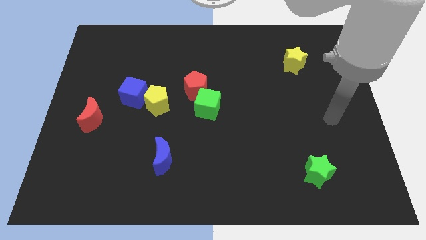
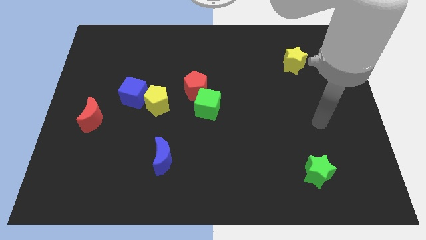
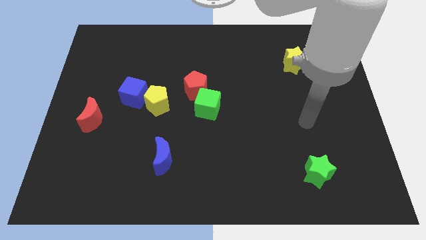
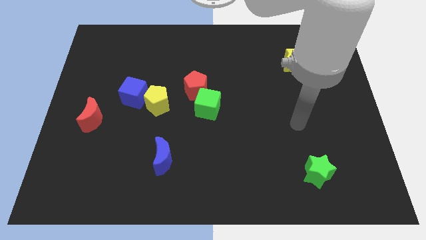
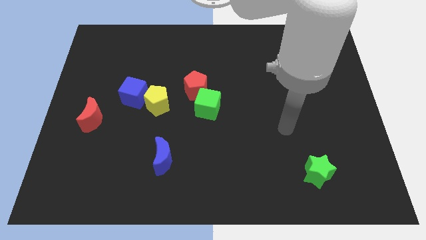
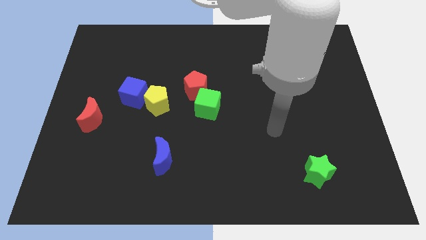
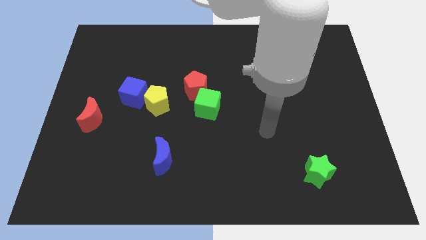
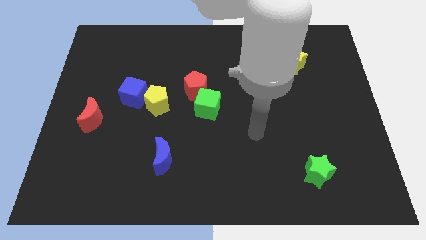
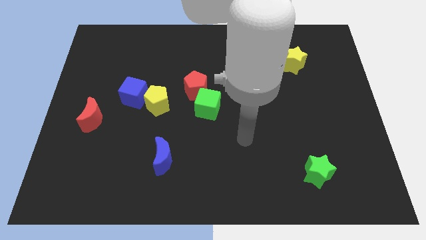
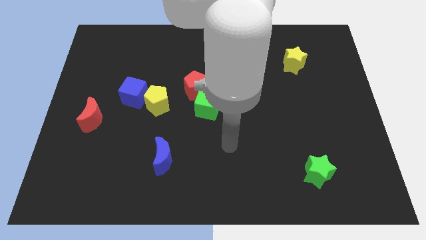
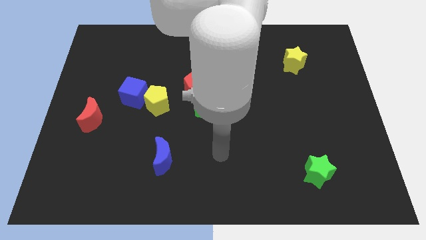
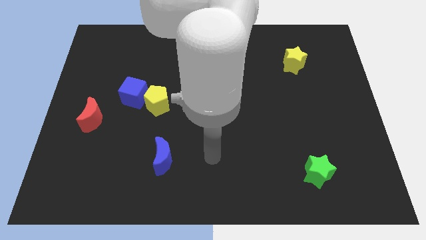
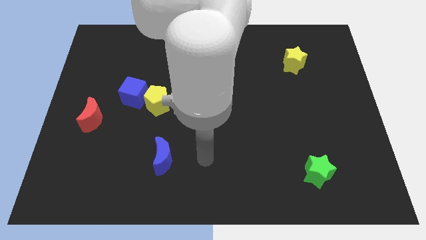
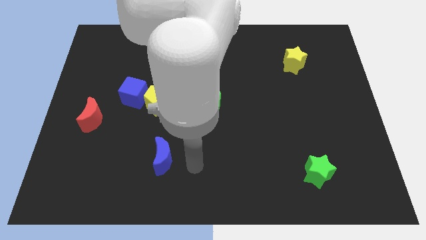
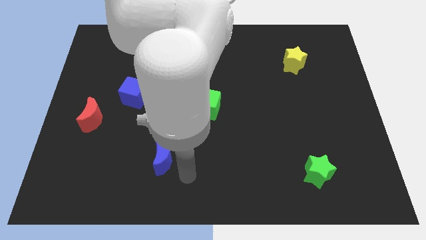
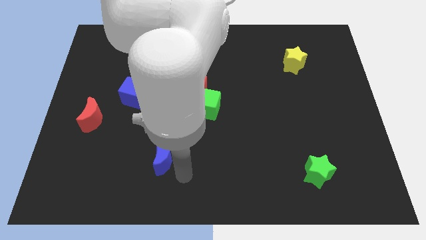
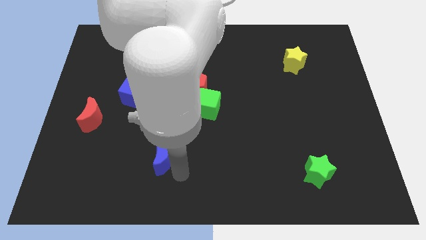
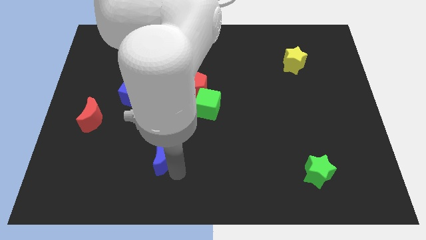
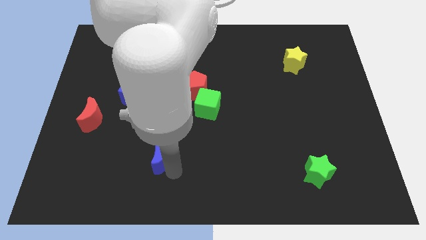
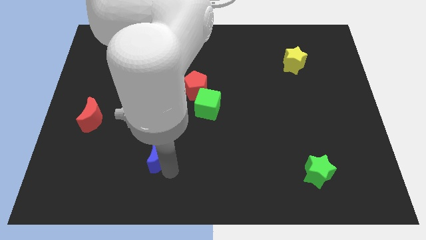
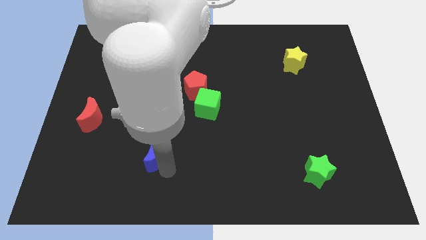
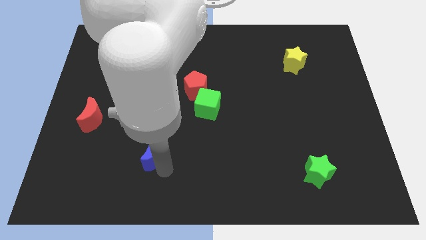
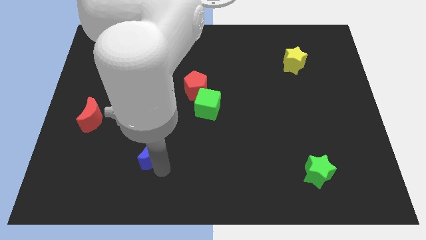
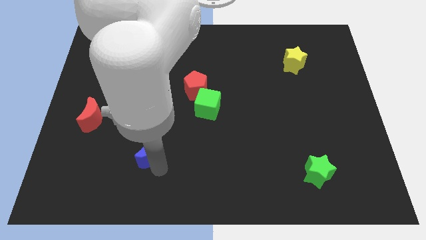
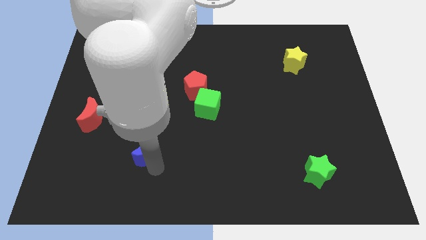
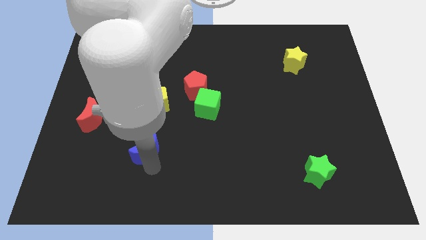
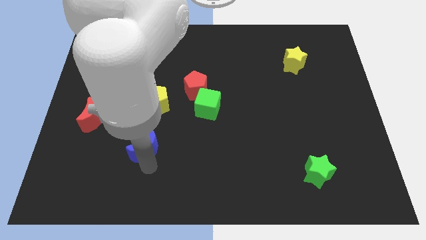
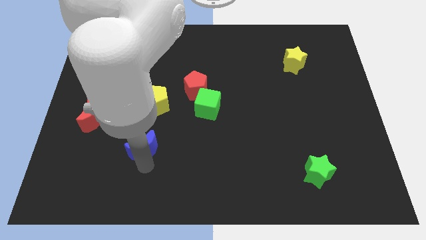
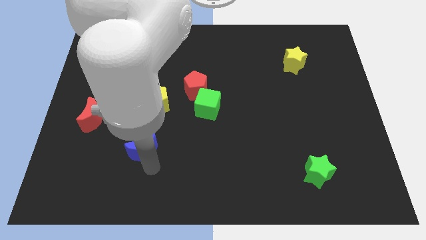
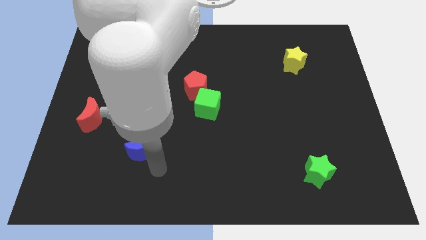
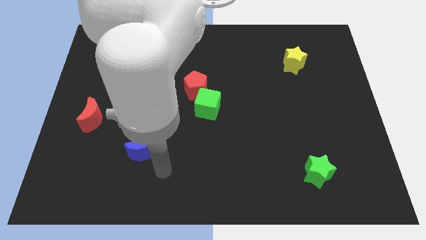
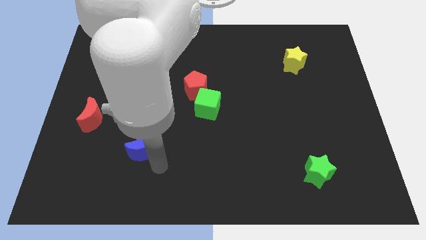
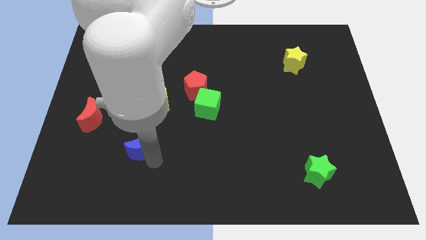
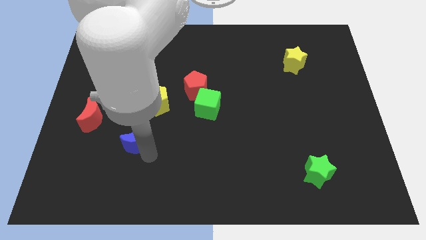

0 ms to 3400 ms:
move the blue moon up and to the left diagonally a little

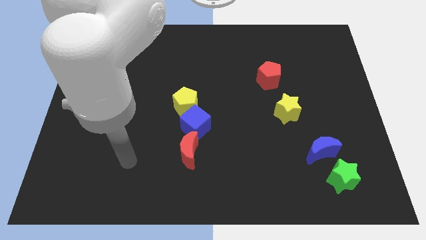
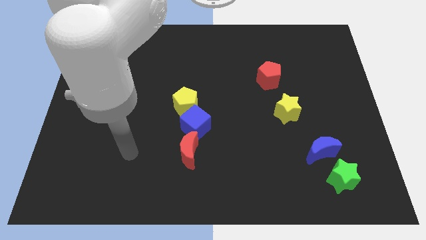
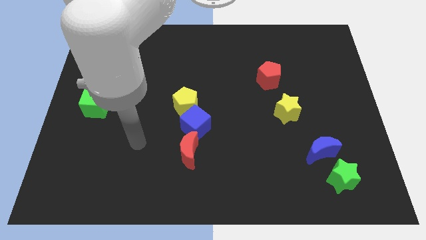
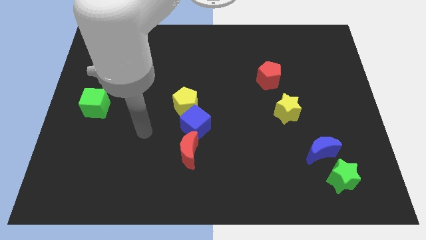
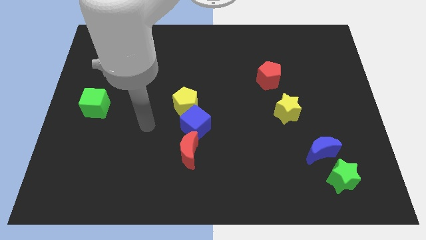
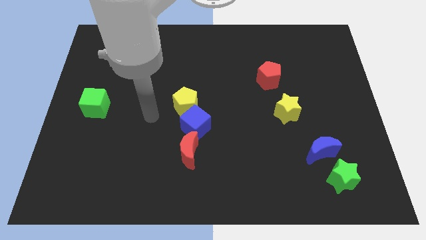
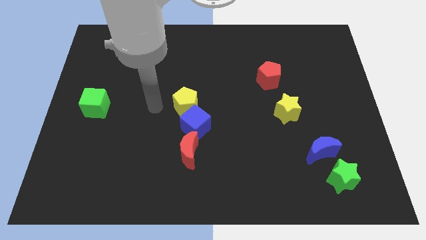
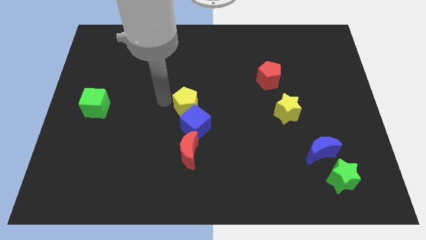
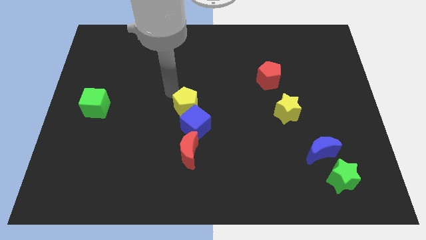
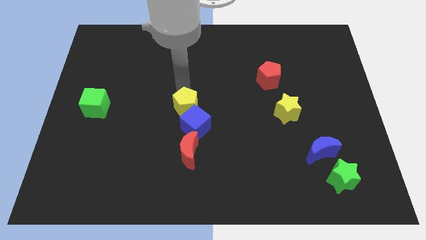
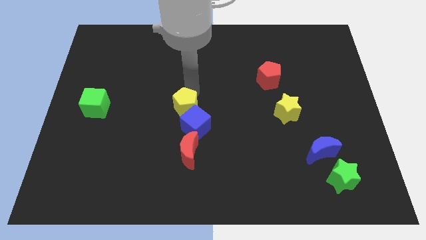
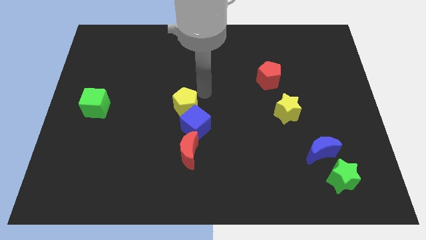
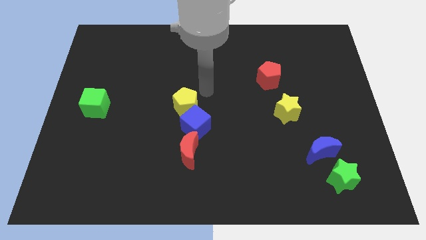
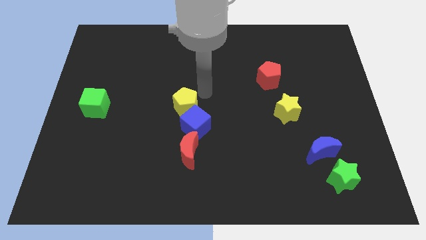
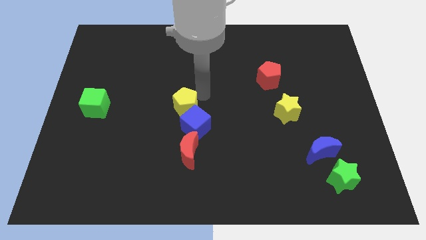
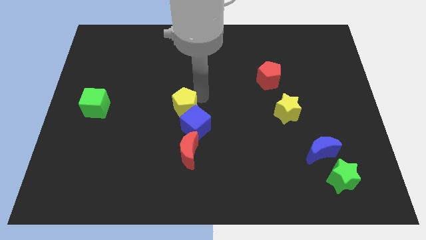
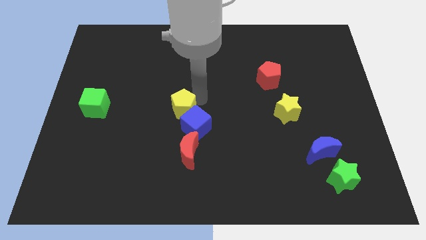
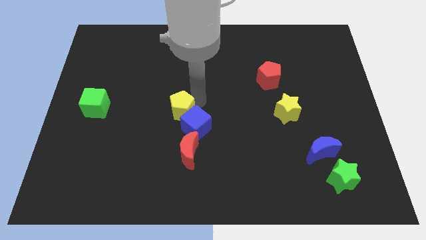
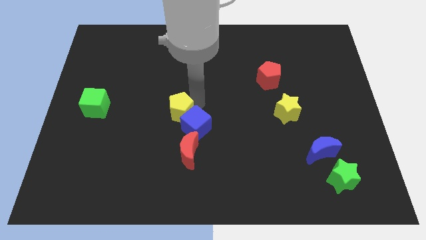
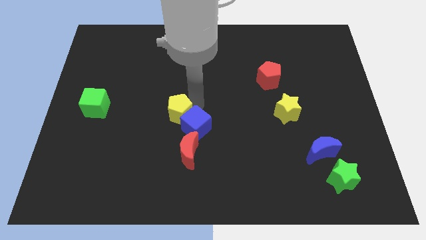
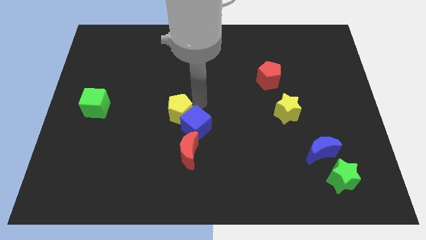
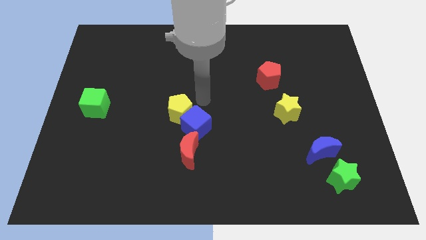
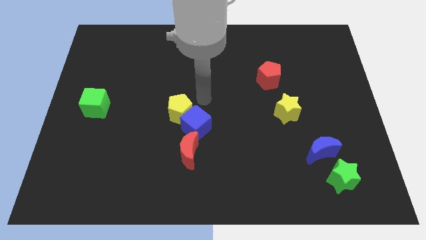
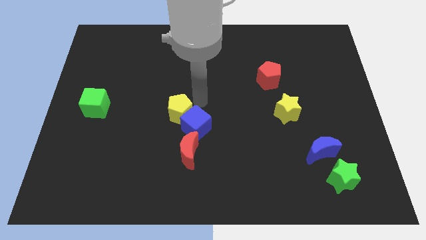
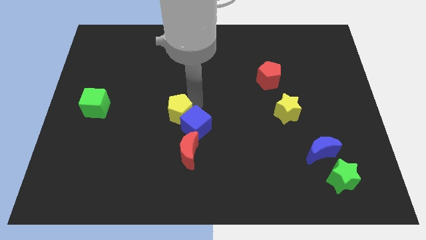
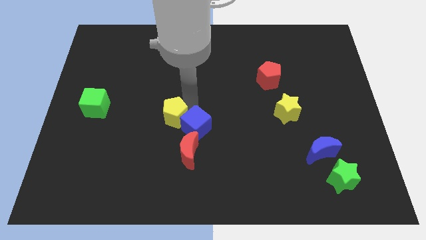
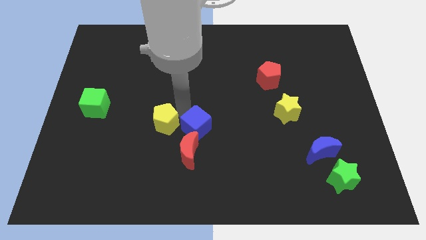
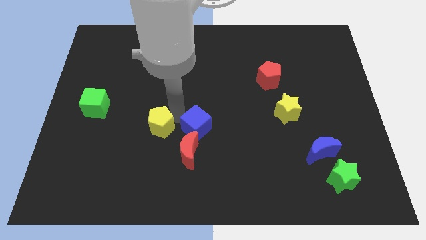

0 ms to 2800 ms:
slightly slide the yellow pentagon down and to the left

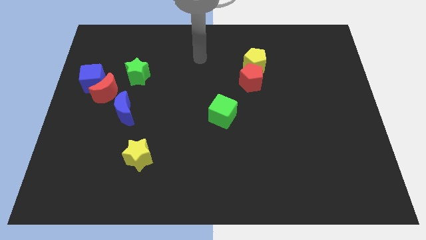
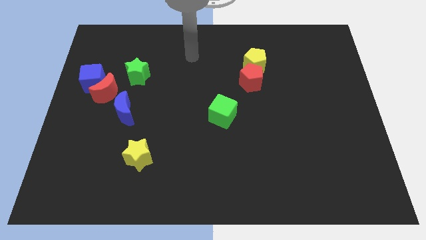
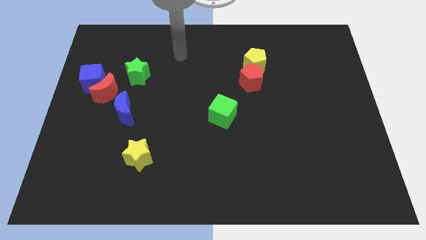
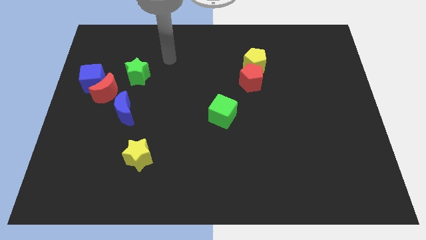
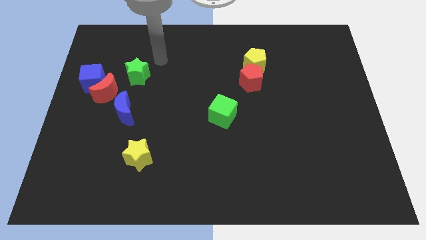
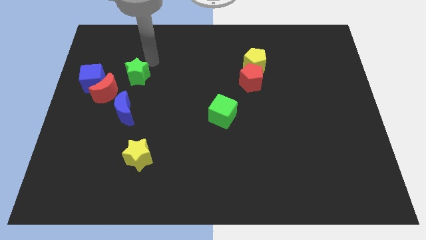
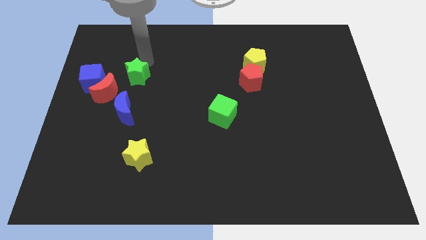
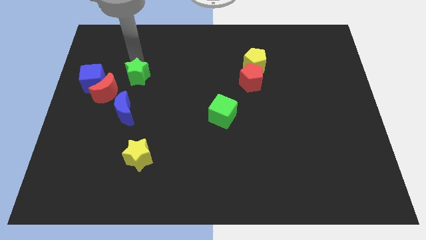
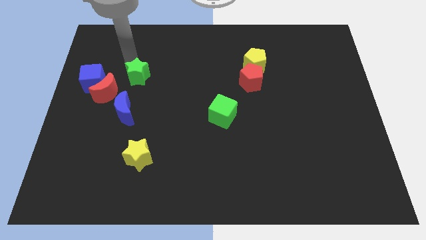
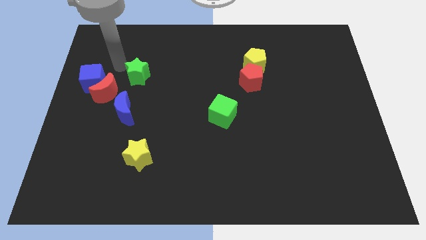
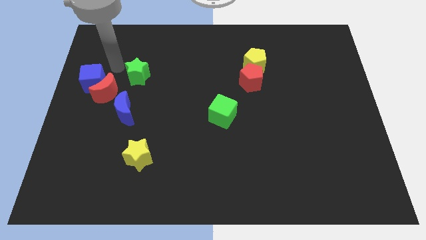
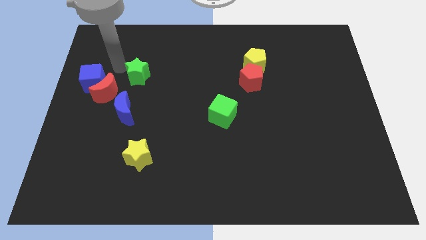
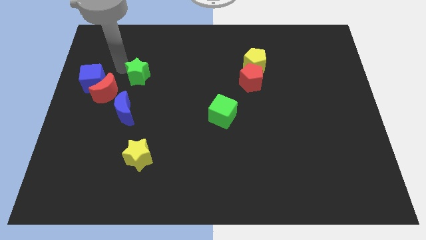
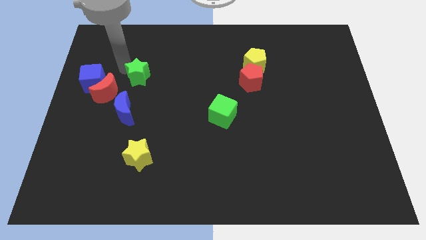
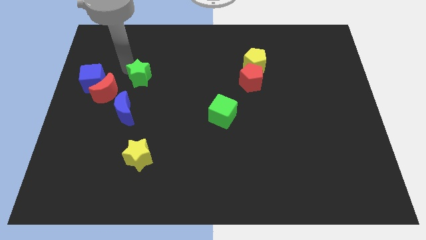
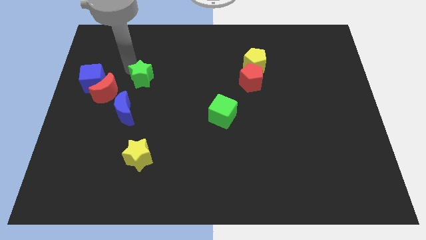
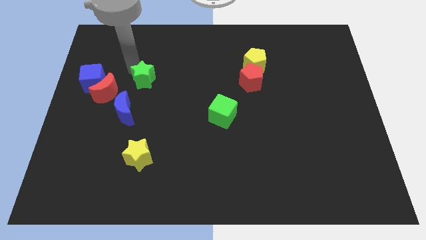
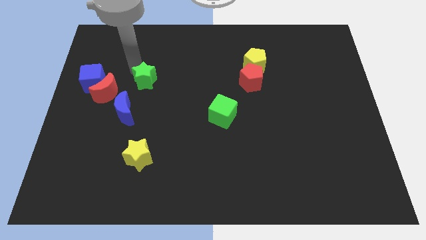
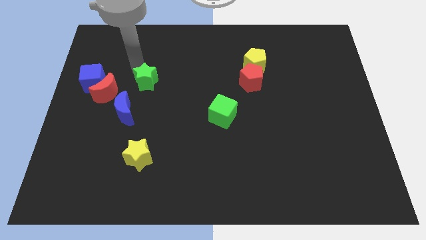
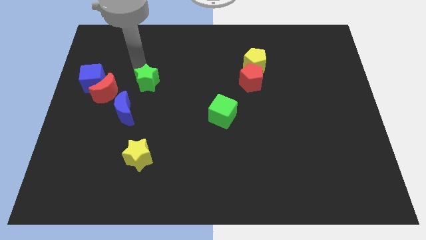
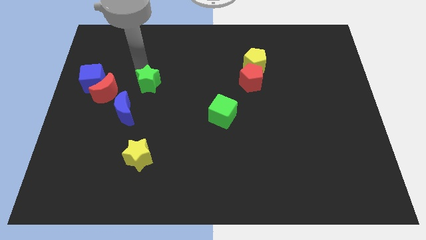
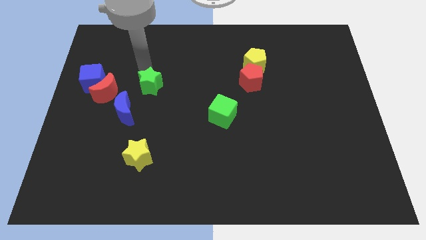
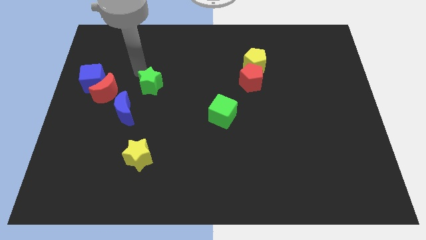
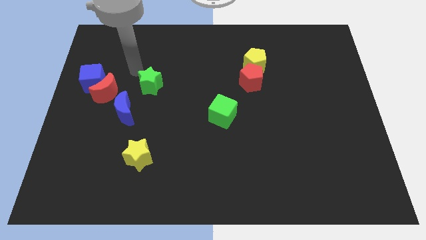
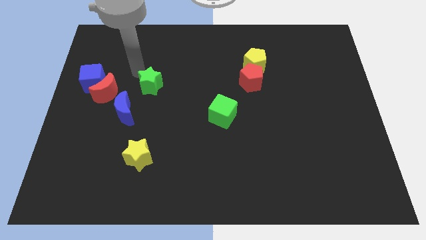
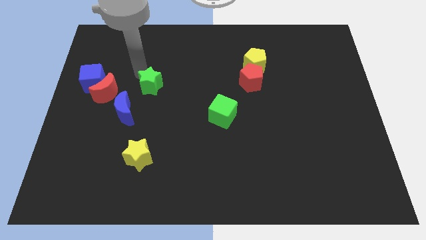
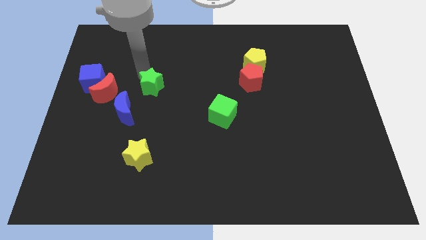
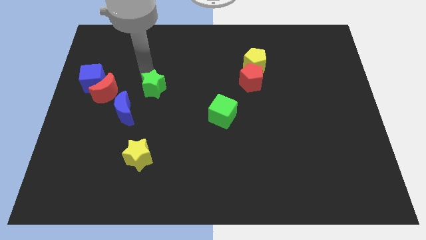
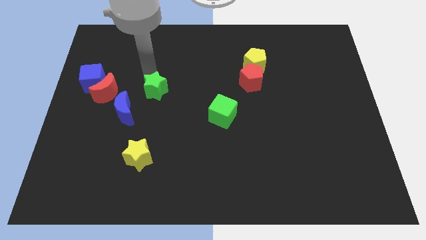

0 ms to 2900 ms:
slightly push the green star downwards and to the right
